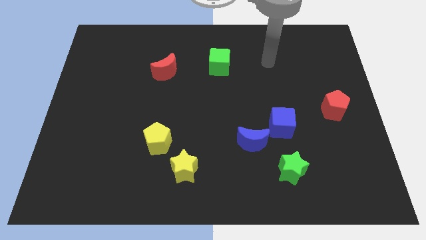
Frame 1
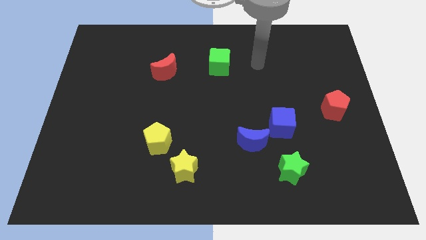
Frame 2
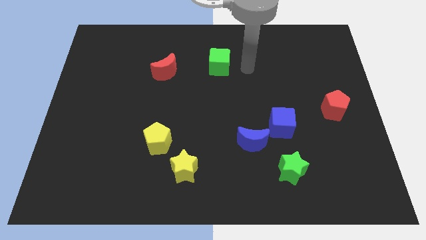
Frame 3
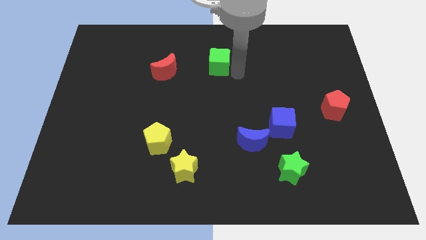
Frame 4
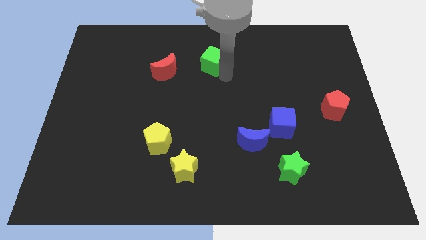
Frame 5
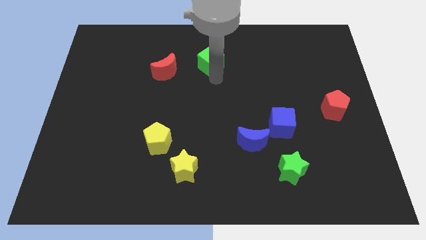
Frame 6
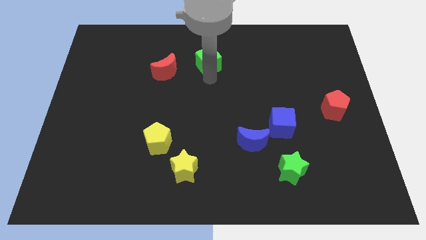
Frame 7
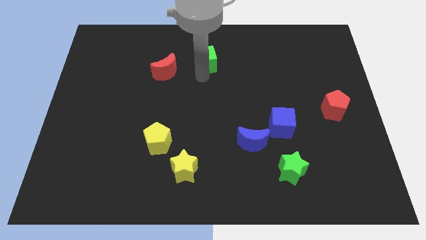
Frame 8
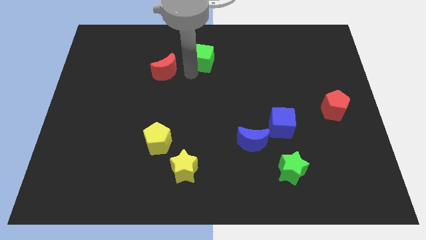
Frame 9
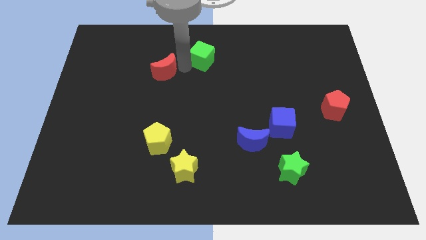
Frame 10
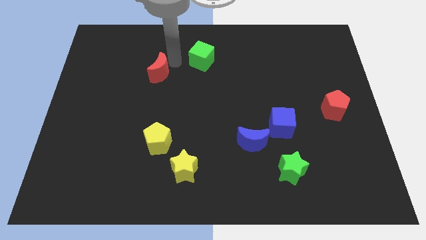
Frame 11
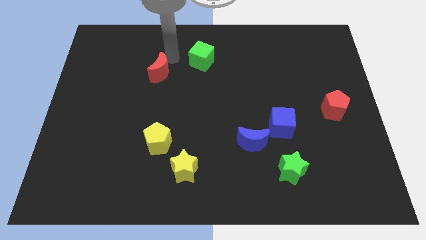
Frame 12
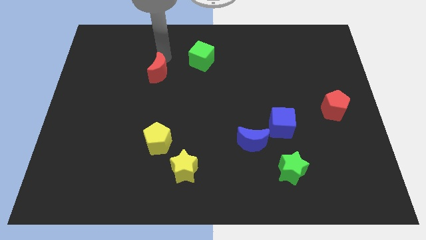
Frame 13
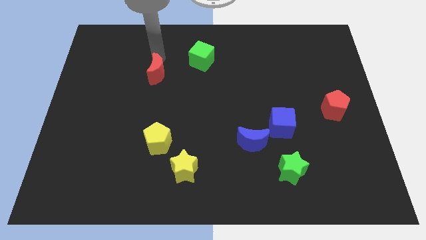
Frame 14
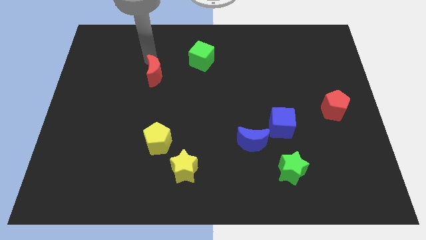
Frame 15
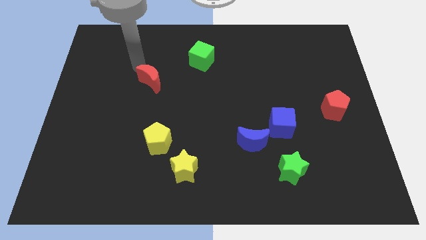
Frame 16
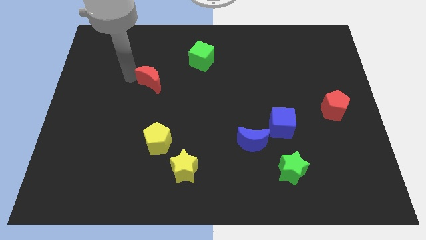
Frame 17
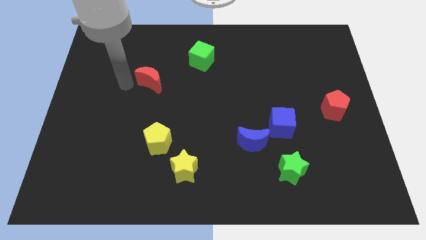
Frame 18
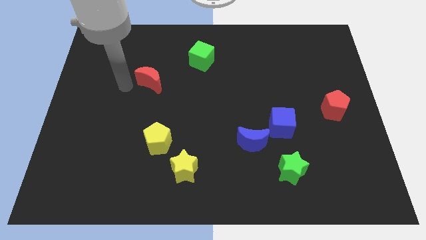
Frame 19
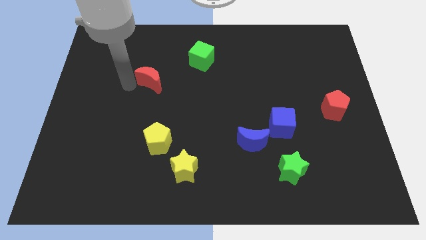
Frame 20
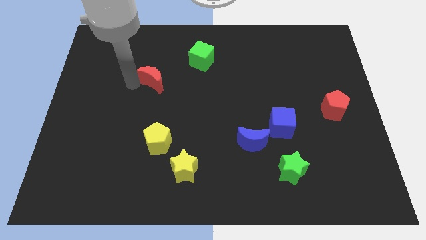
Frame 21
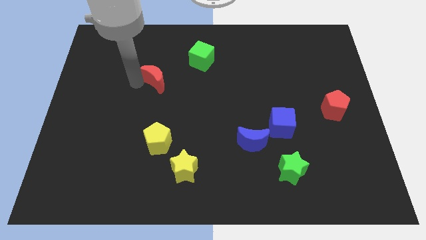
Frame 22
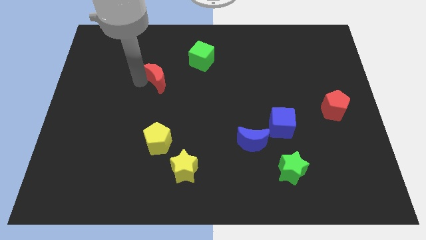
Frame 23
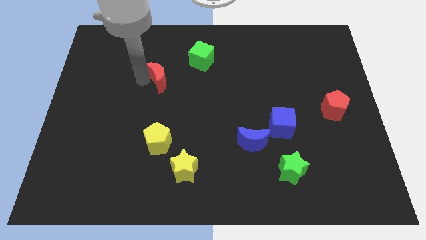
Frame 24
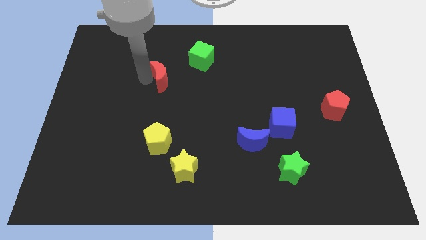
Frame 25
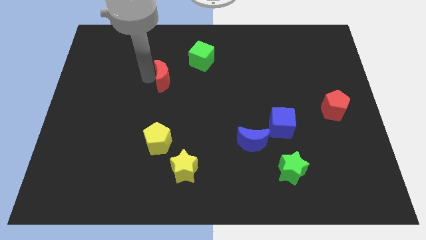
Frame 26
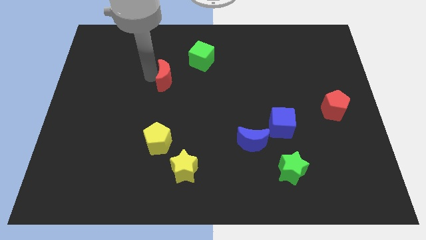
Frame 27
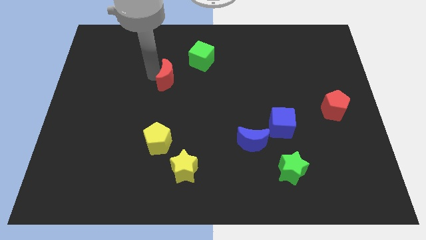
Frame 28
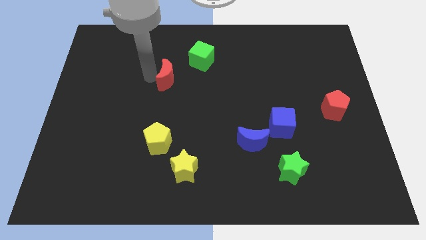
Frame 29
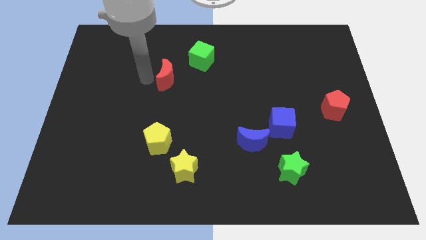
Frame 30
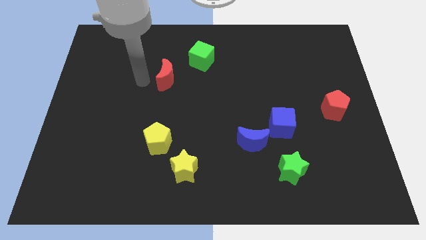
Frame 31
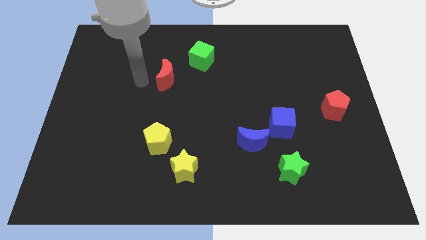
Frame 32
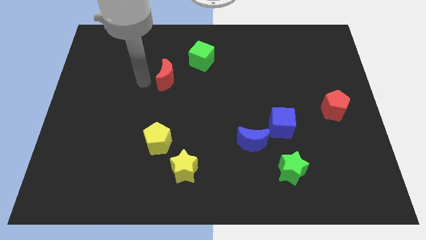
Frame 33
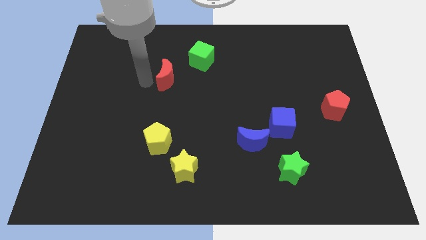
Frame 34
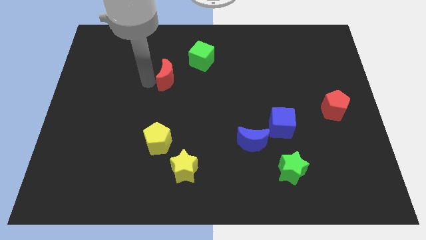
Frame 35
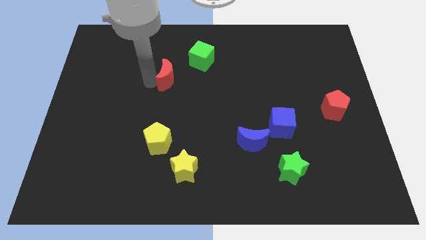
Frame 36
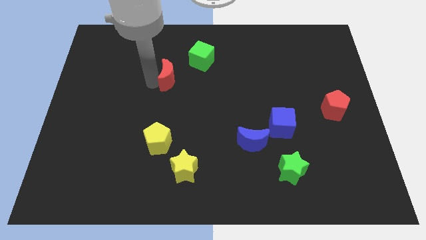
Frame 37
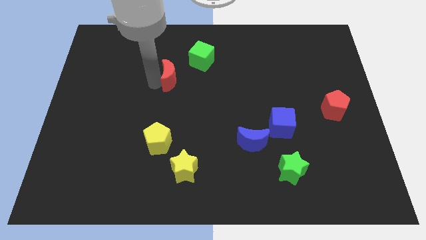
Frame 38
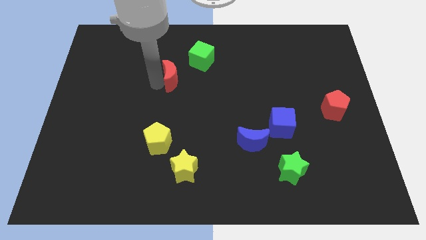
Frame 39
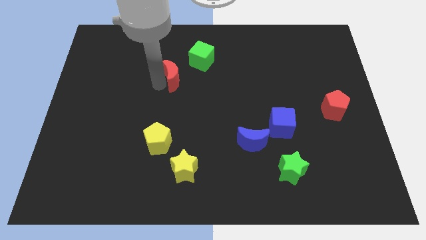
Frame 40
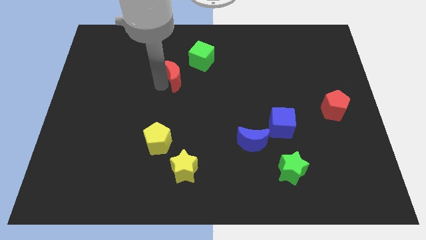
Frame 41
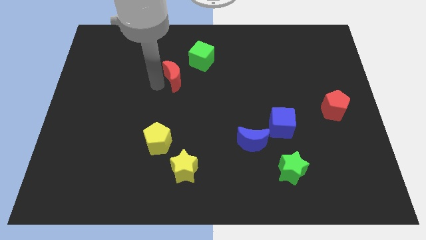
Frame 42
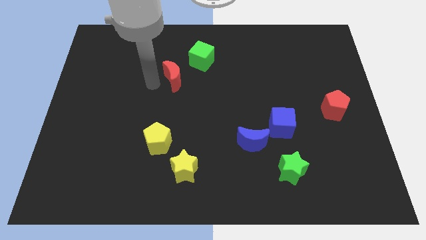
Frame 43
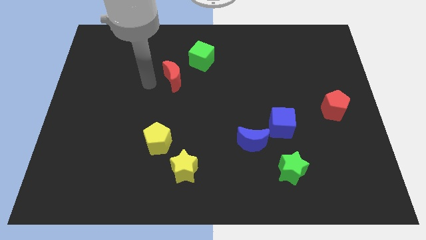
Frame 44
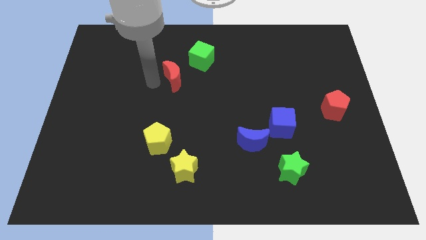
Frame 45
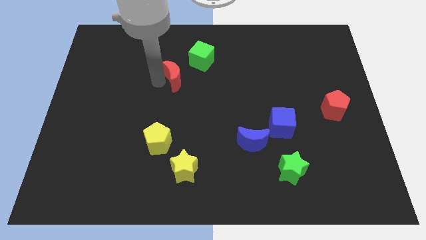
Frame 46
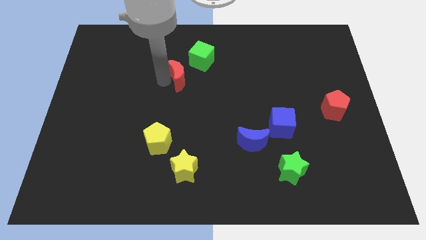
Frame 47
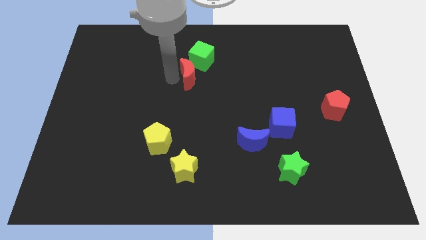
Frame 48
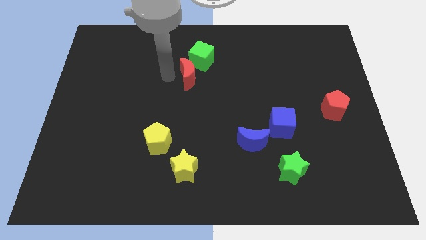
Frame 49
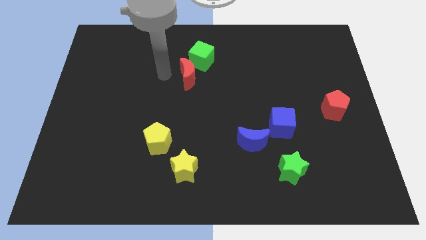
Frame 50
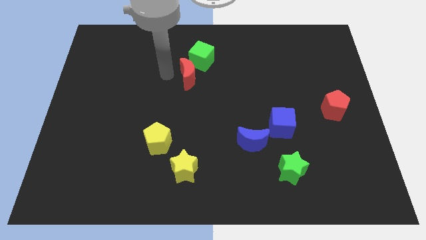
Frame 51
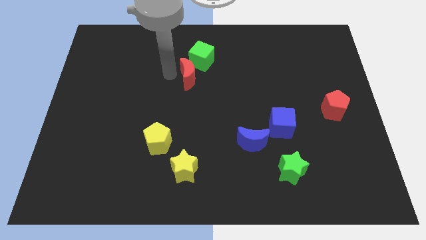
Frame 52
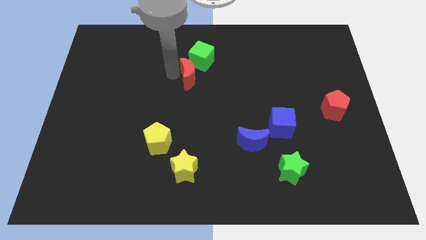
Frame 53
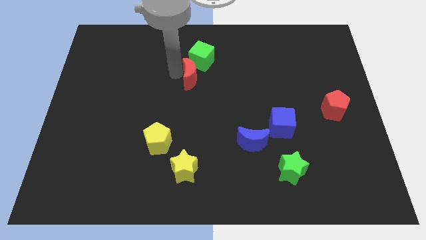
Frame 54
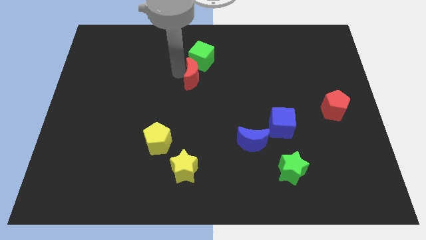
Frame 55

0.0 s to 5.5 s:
slightly slide the red moon to the right

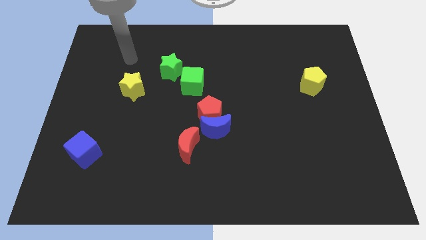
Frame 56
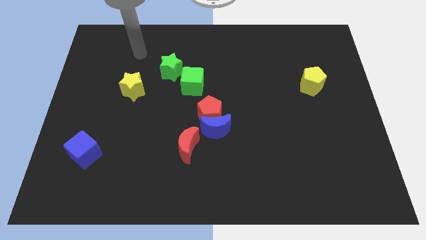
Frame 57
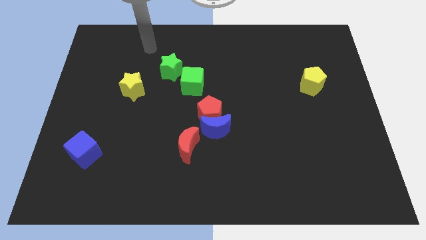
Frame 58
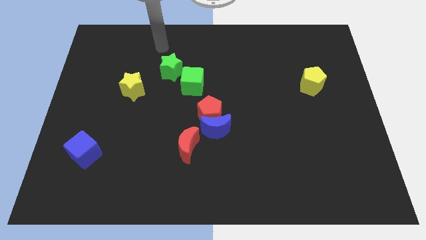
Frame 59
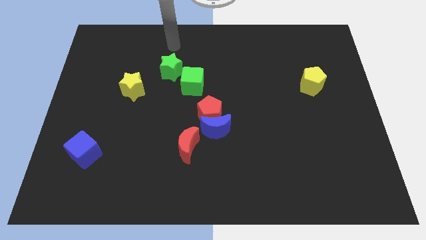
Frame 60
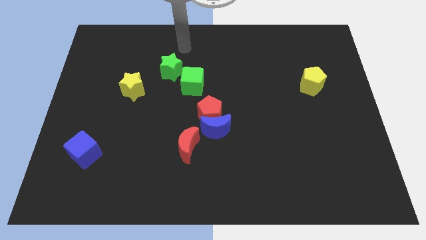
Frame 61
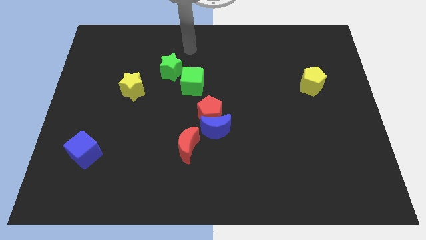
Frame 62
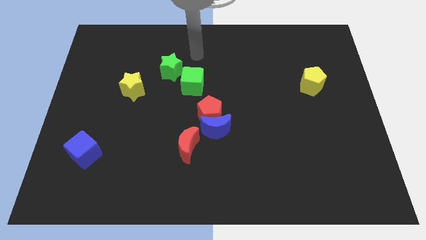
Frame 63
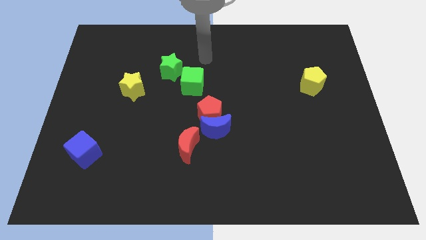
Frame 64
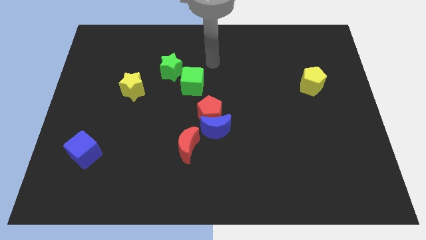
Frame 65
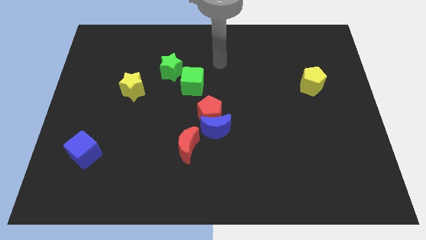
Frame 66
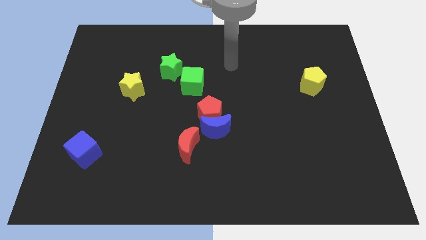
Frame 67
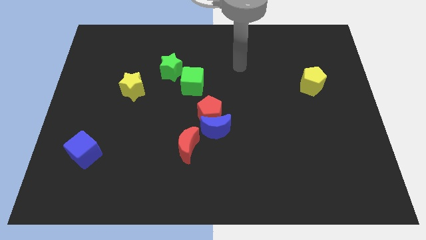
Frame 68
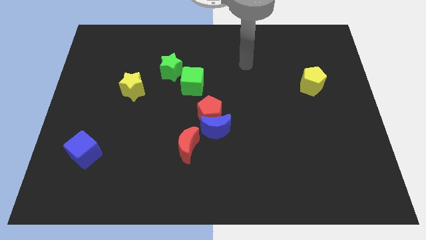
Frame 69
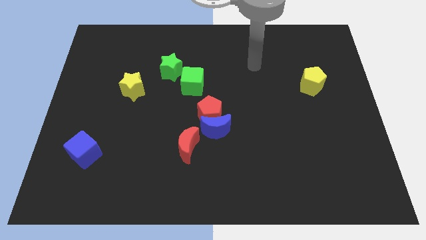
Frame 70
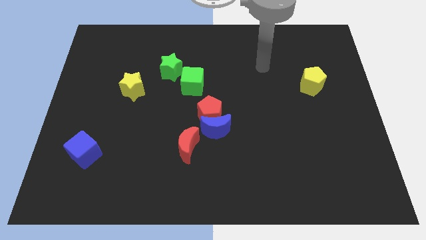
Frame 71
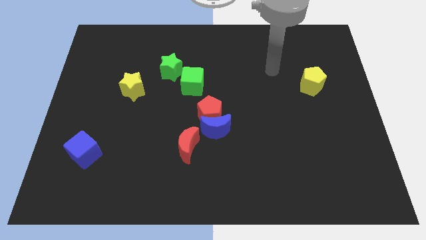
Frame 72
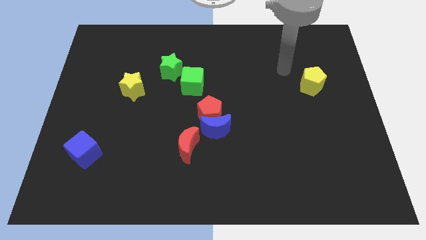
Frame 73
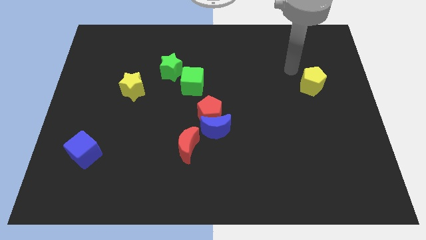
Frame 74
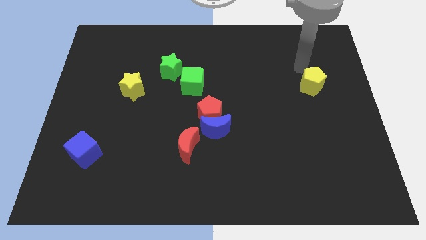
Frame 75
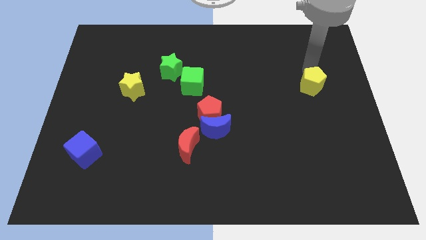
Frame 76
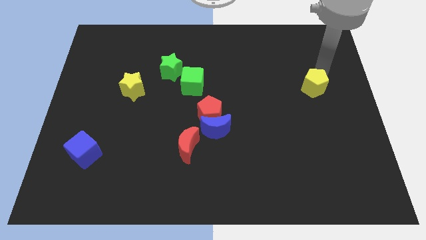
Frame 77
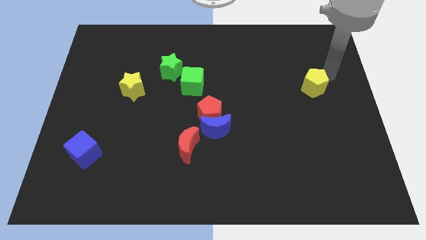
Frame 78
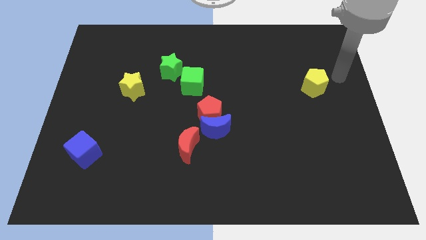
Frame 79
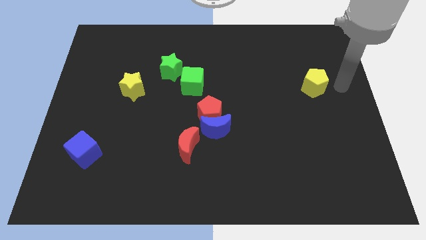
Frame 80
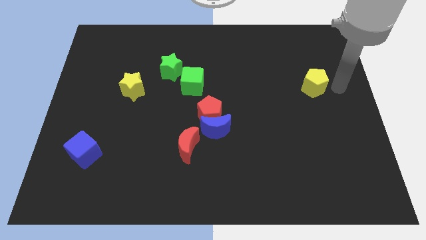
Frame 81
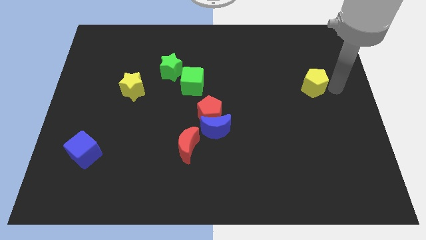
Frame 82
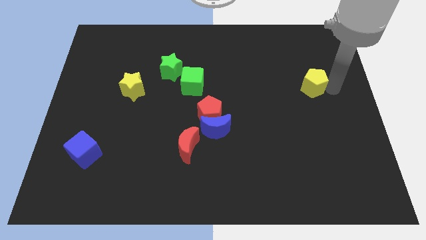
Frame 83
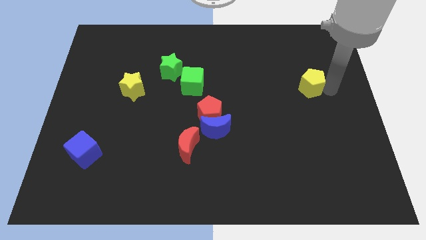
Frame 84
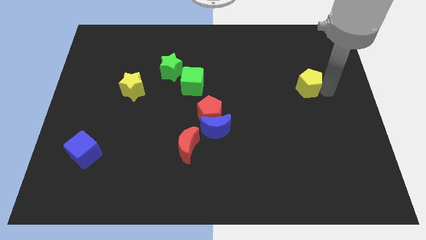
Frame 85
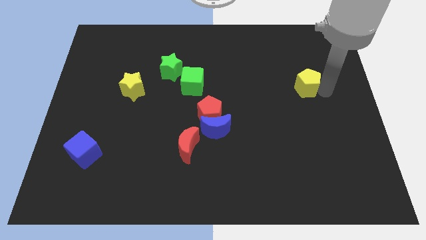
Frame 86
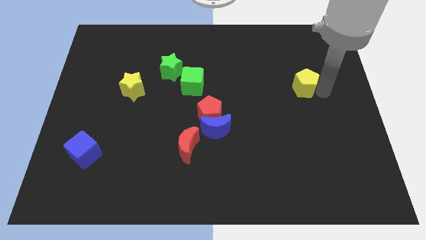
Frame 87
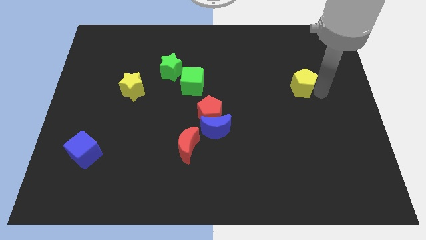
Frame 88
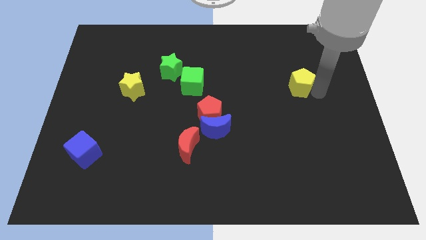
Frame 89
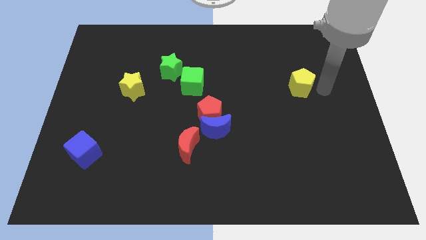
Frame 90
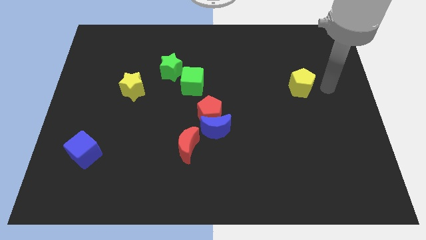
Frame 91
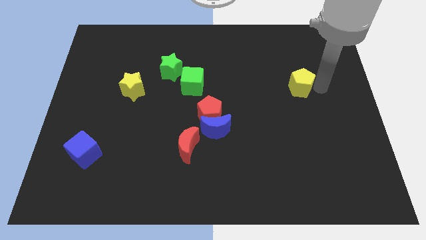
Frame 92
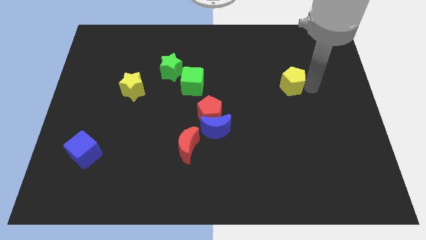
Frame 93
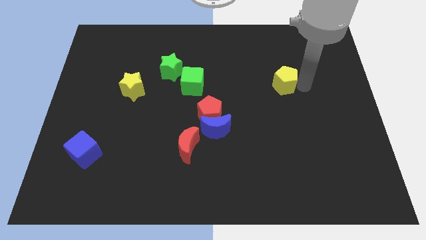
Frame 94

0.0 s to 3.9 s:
move the yellow pentagon somewhat left
